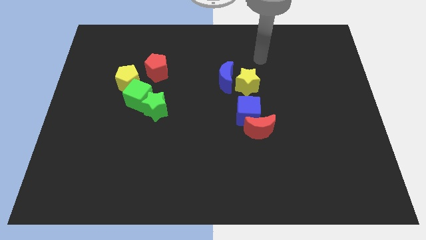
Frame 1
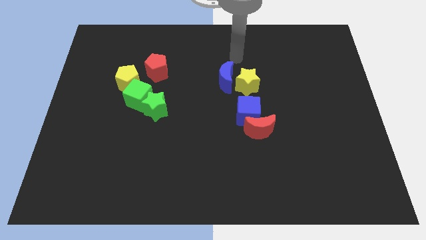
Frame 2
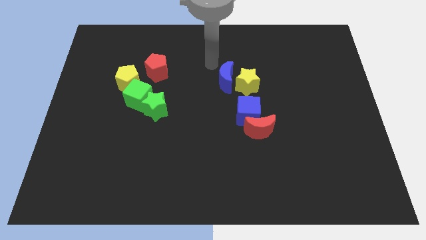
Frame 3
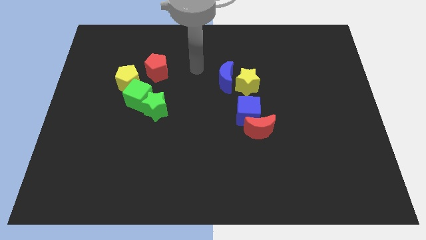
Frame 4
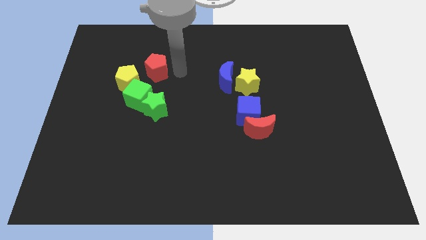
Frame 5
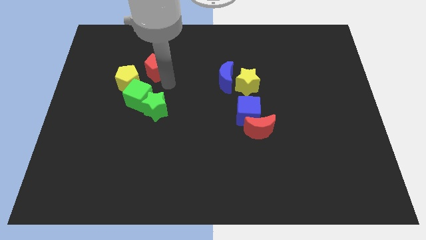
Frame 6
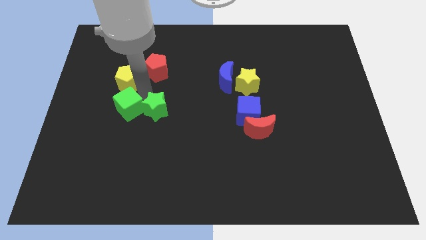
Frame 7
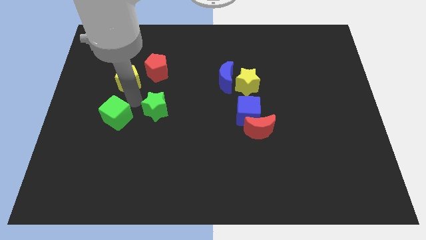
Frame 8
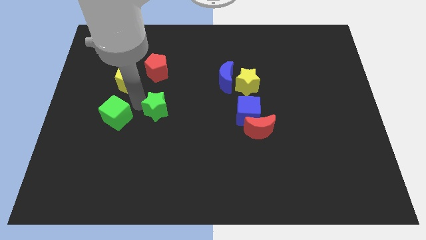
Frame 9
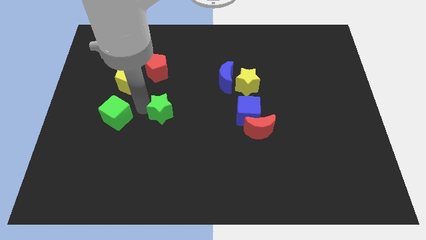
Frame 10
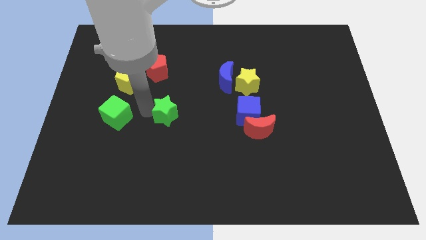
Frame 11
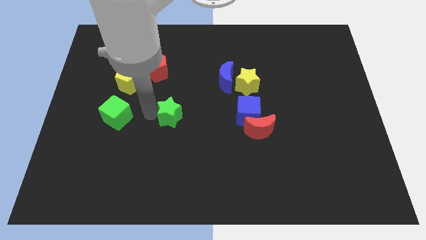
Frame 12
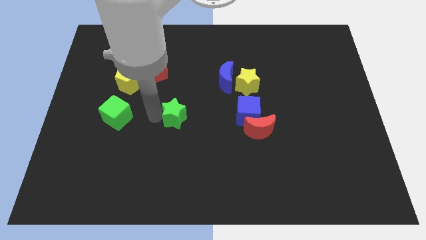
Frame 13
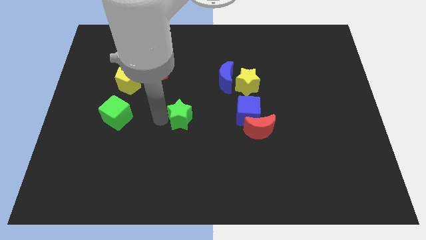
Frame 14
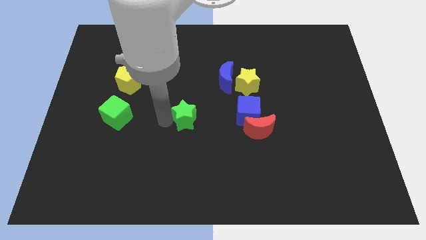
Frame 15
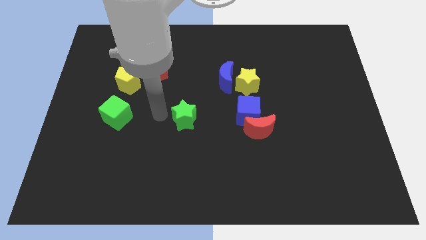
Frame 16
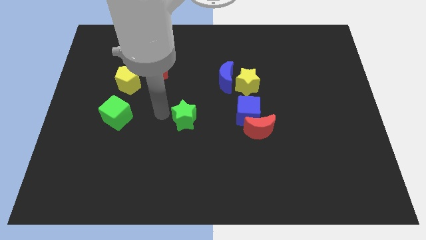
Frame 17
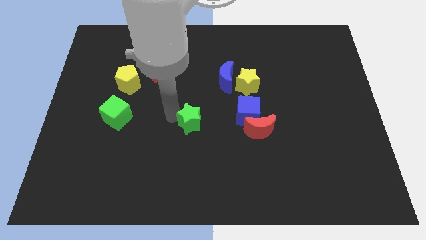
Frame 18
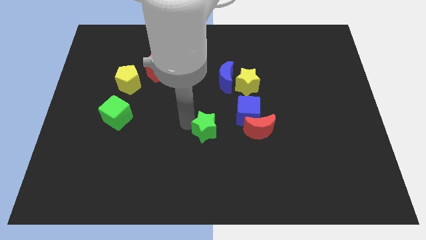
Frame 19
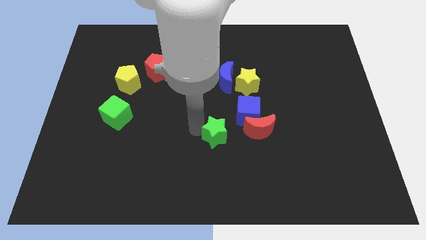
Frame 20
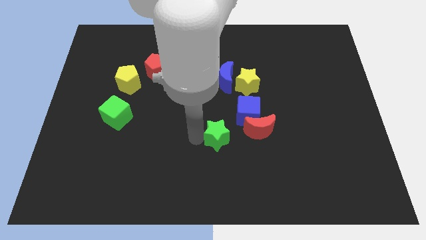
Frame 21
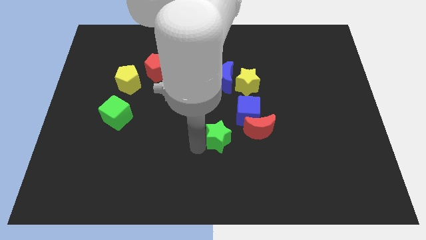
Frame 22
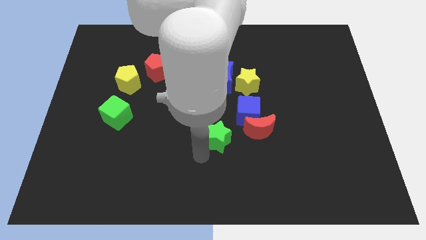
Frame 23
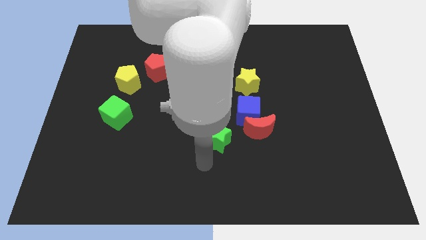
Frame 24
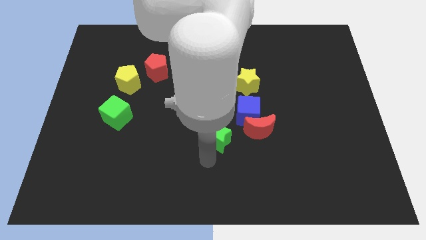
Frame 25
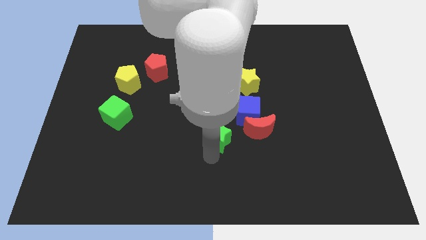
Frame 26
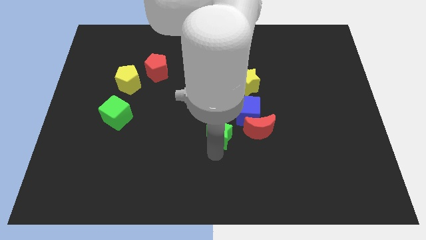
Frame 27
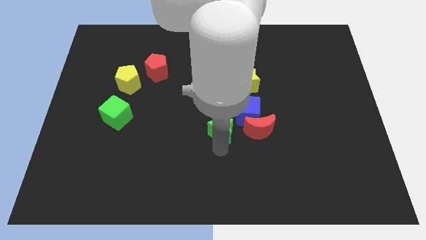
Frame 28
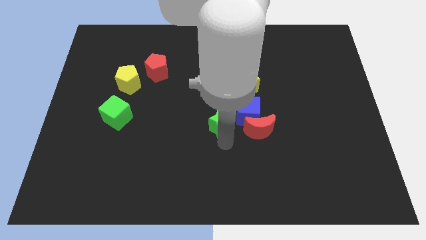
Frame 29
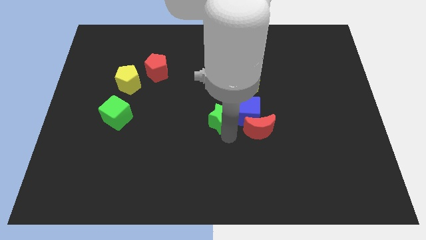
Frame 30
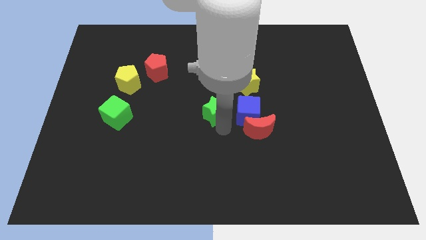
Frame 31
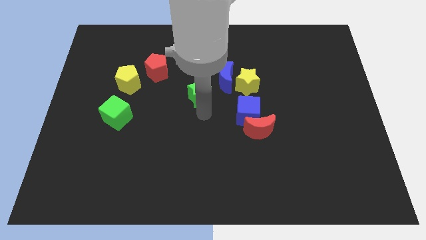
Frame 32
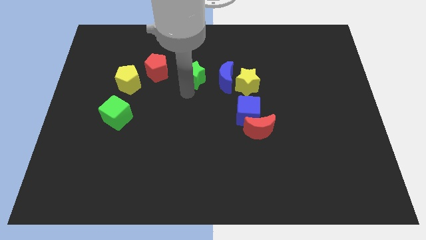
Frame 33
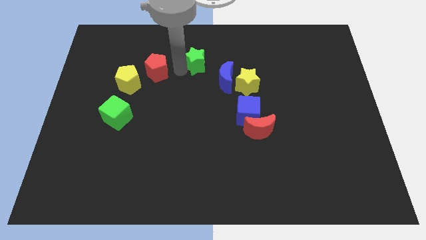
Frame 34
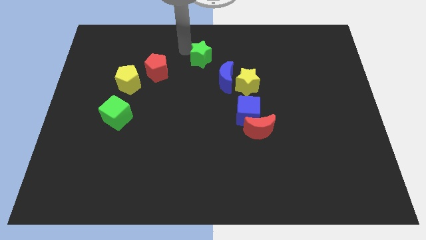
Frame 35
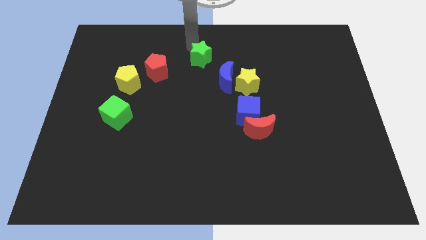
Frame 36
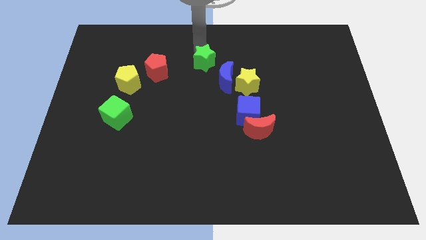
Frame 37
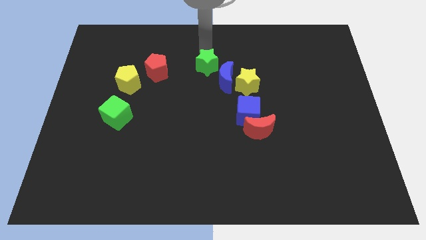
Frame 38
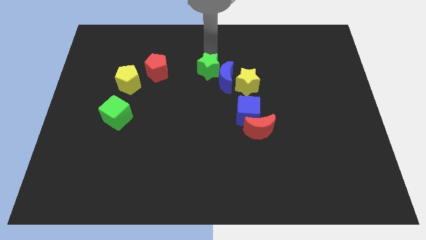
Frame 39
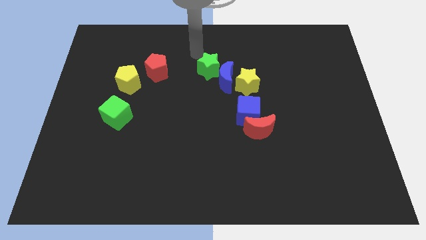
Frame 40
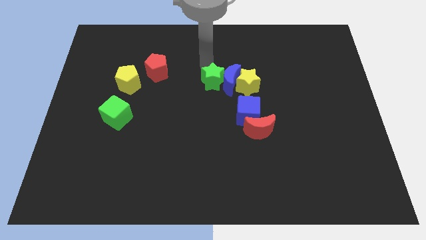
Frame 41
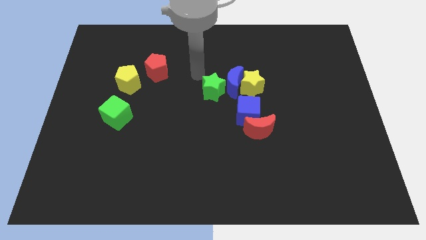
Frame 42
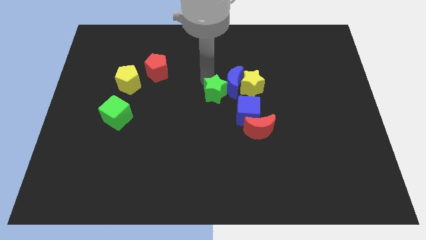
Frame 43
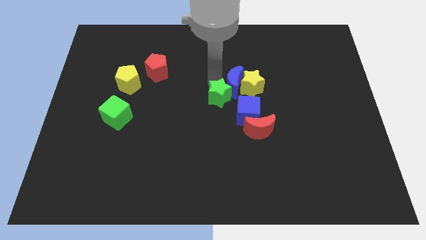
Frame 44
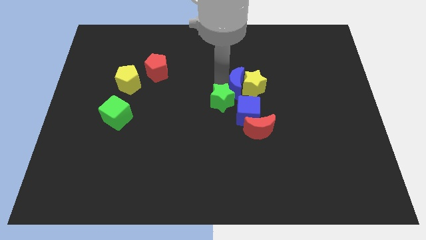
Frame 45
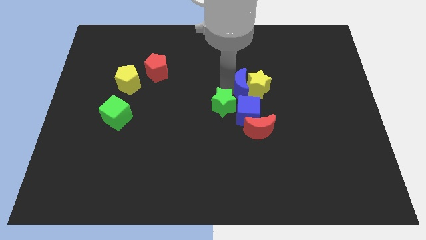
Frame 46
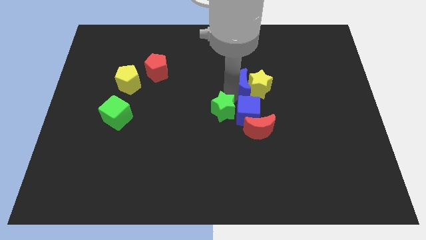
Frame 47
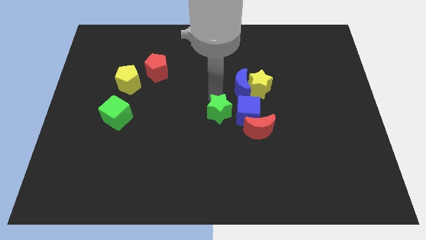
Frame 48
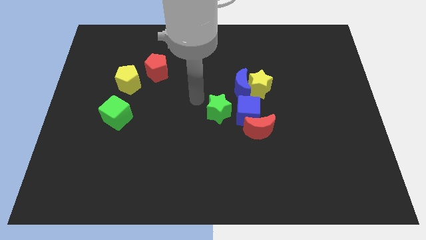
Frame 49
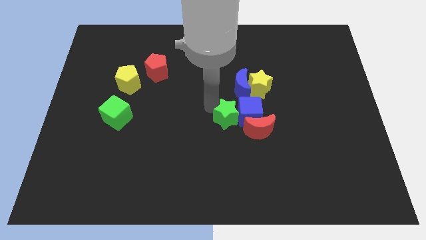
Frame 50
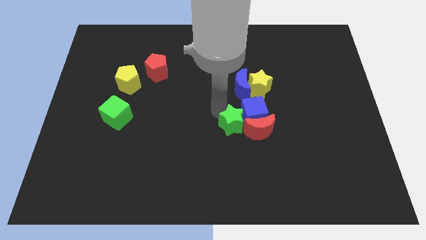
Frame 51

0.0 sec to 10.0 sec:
slide the green star to the red moon

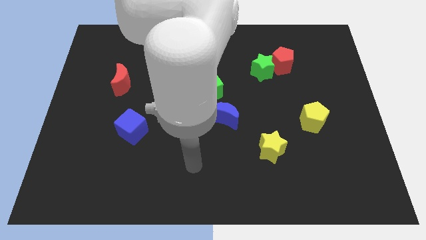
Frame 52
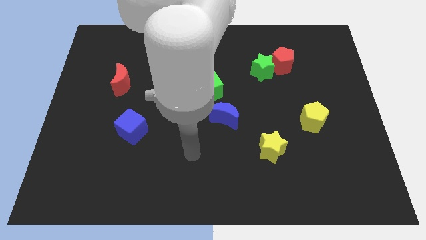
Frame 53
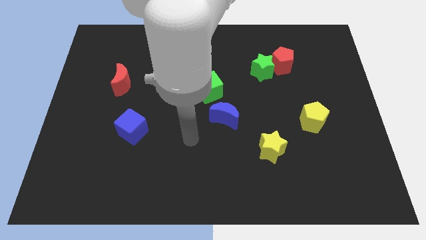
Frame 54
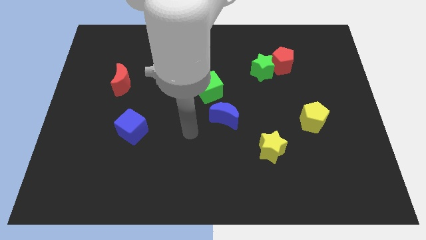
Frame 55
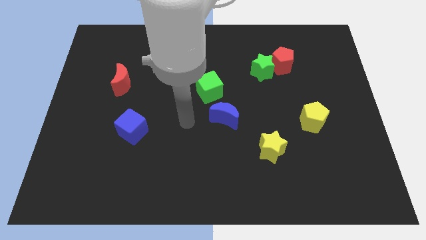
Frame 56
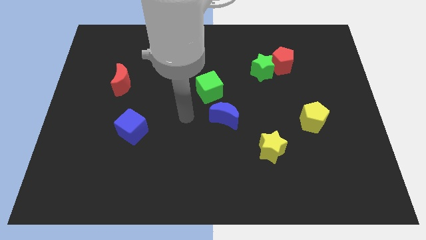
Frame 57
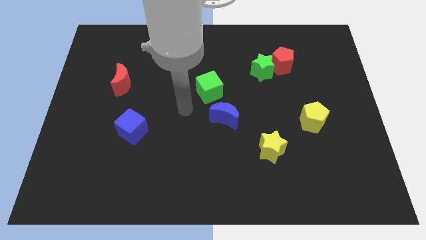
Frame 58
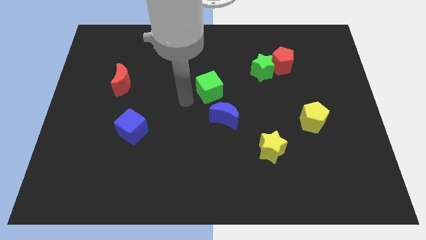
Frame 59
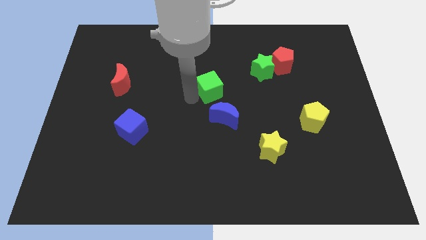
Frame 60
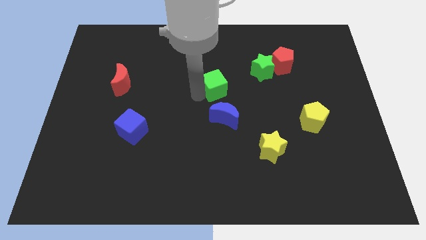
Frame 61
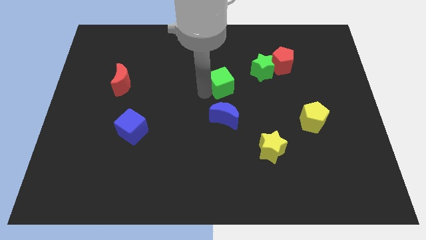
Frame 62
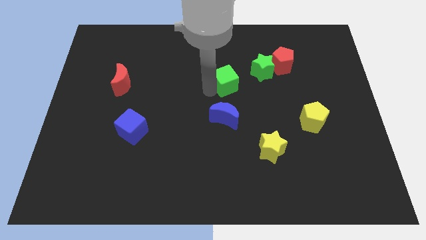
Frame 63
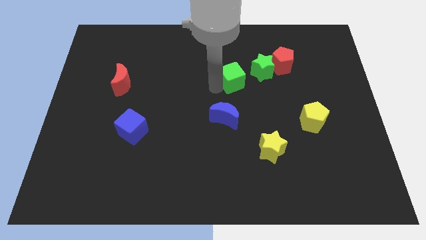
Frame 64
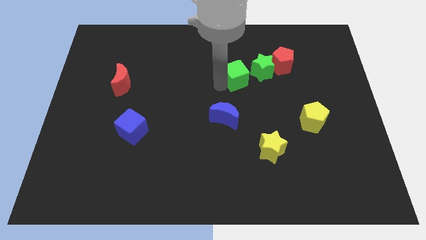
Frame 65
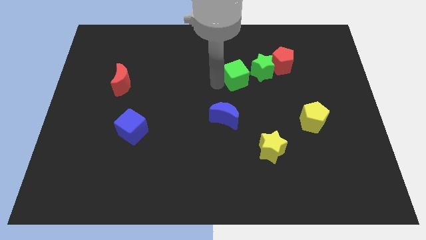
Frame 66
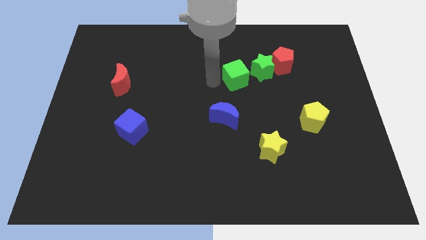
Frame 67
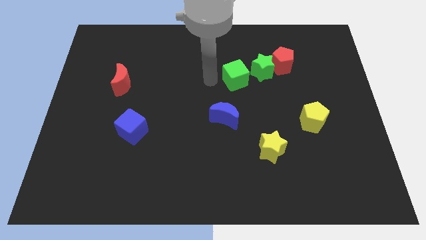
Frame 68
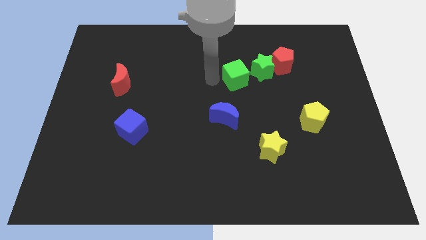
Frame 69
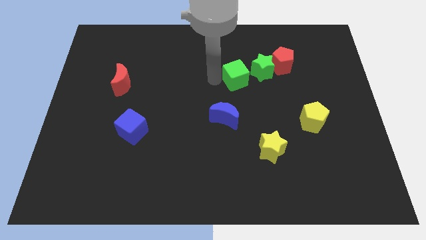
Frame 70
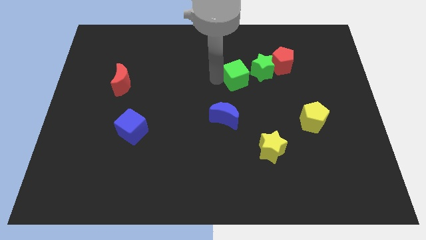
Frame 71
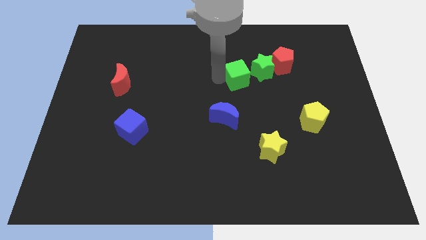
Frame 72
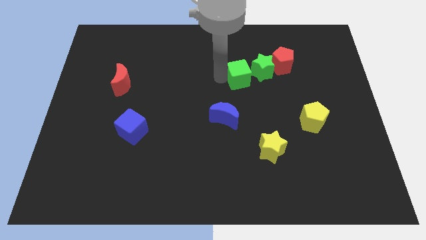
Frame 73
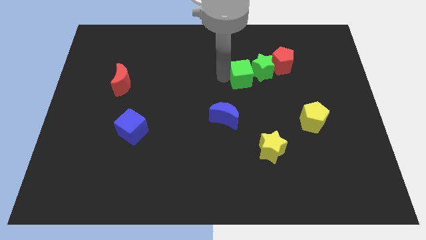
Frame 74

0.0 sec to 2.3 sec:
move the green cube close to the green star
